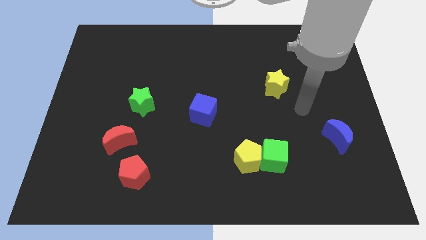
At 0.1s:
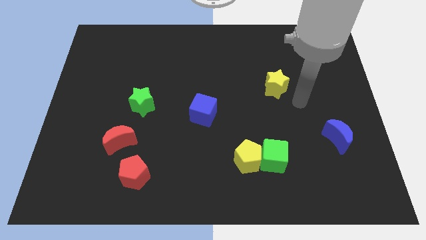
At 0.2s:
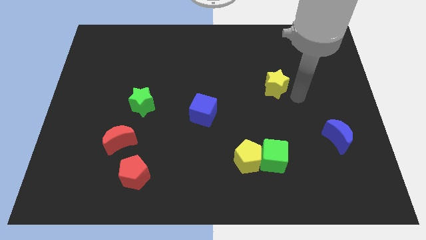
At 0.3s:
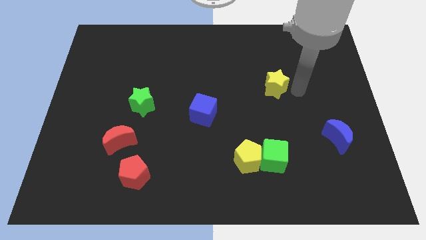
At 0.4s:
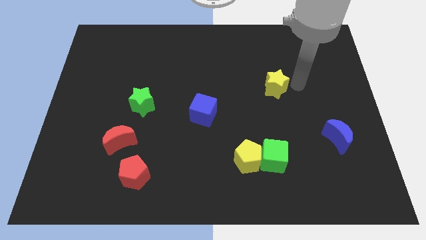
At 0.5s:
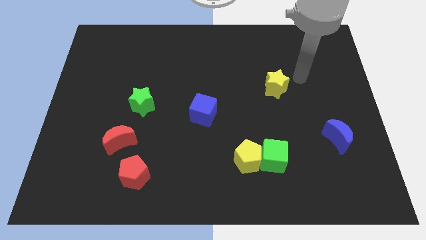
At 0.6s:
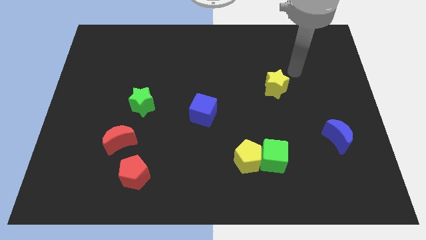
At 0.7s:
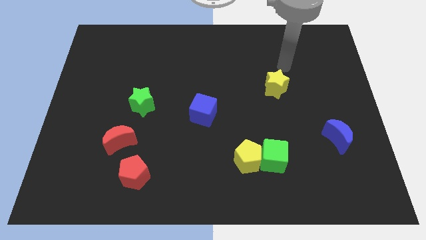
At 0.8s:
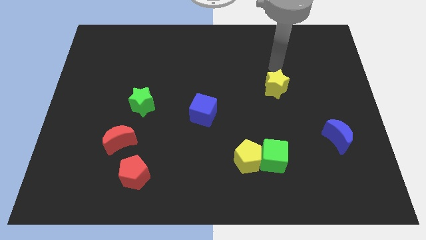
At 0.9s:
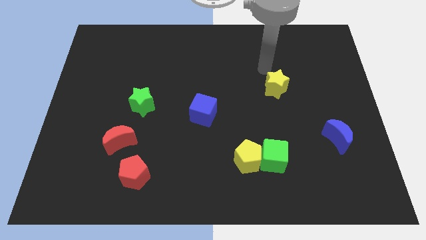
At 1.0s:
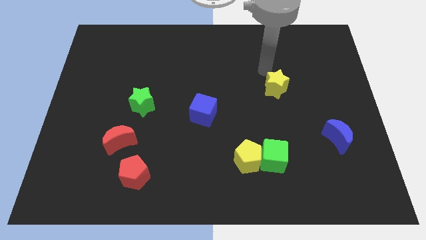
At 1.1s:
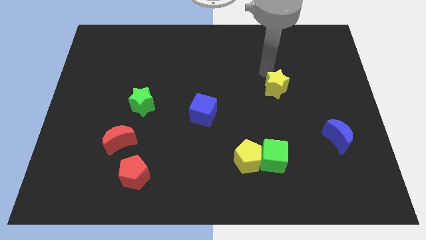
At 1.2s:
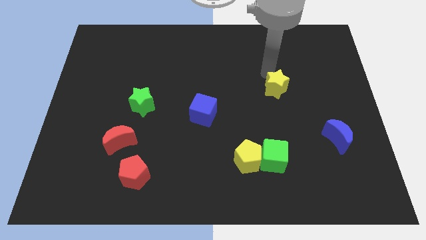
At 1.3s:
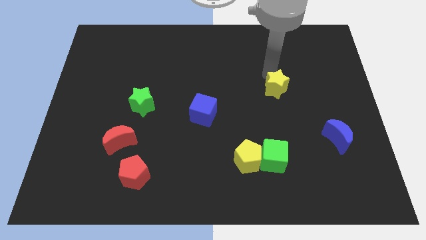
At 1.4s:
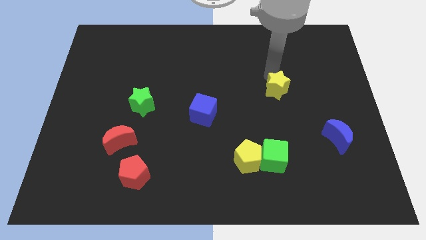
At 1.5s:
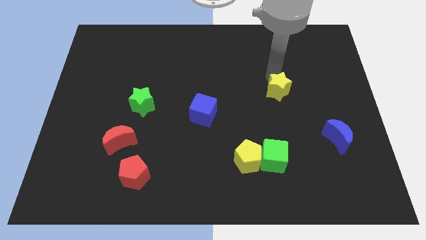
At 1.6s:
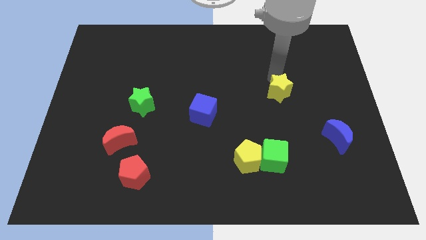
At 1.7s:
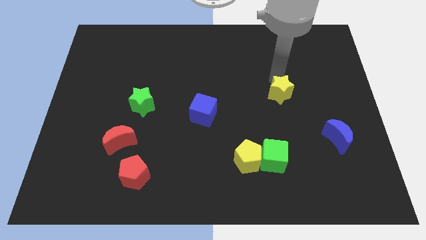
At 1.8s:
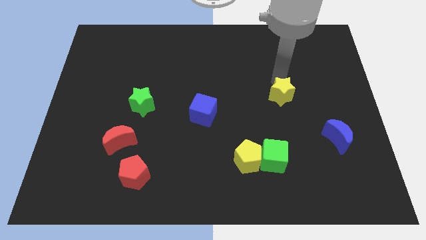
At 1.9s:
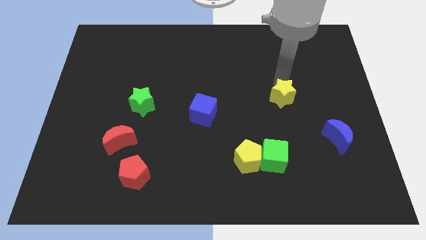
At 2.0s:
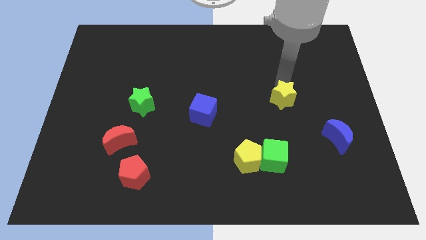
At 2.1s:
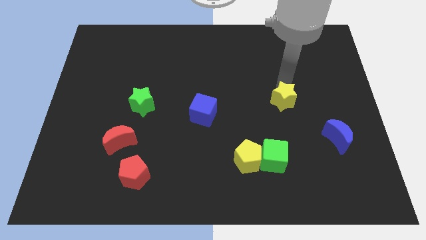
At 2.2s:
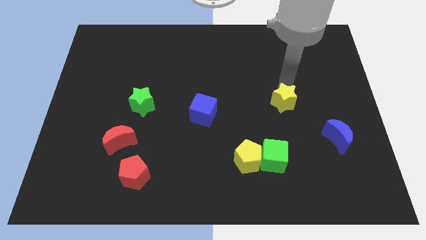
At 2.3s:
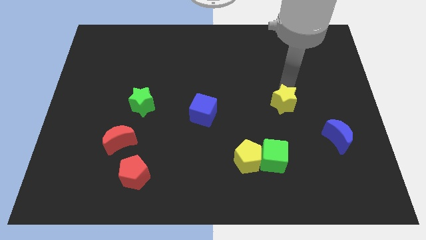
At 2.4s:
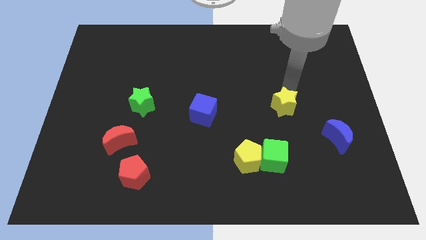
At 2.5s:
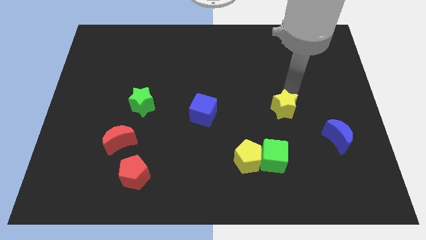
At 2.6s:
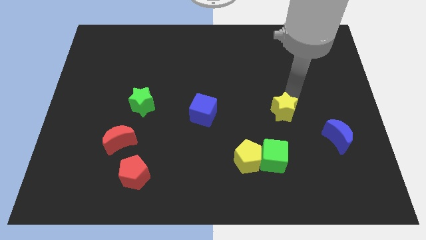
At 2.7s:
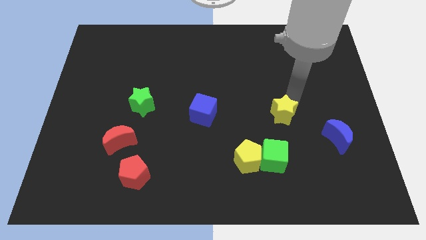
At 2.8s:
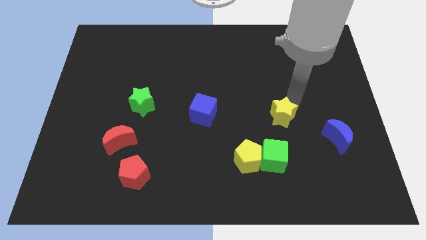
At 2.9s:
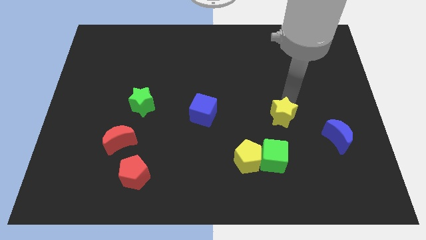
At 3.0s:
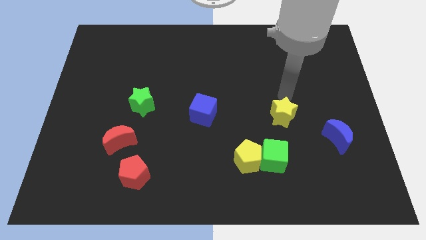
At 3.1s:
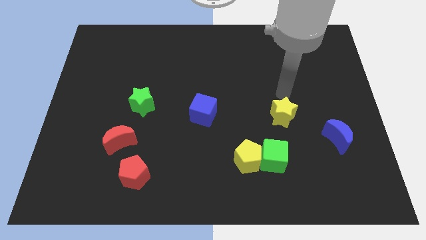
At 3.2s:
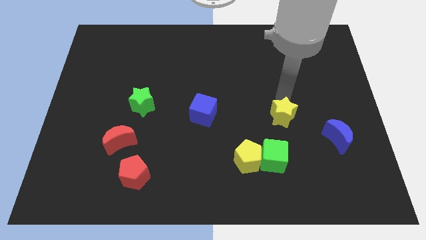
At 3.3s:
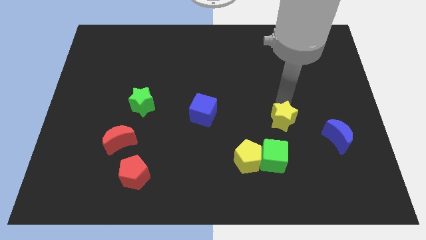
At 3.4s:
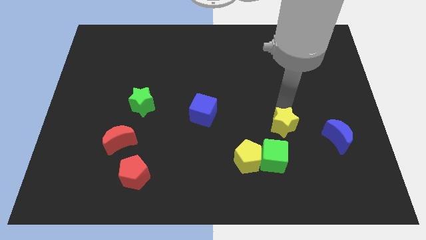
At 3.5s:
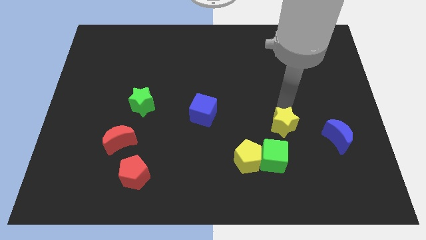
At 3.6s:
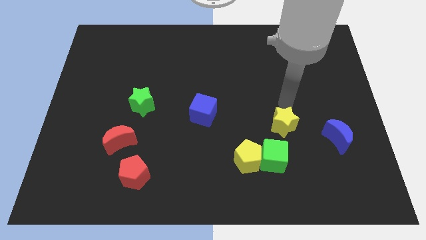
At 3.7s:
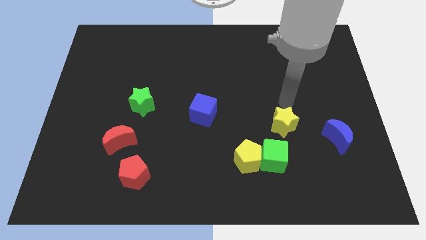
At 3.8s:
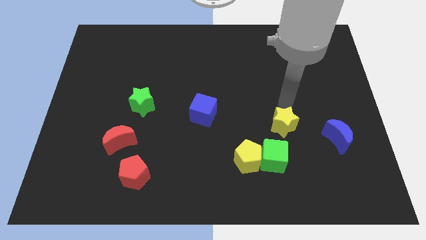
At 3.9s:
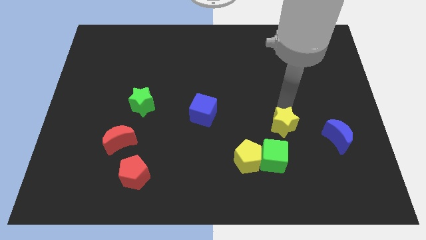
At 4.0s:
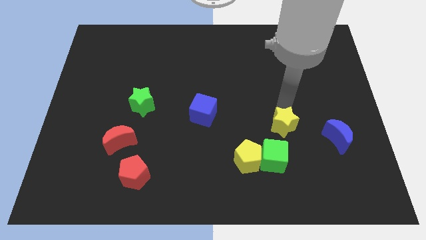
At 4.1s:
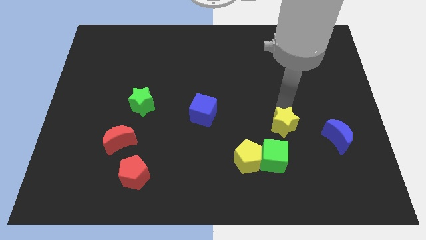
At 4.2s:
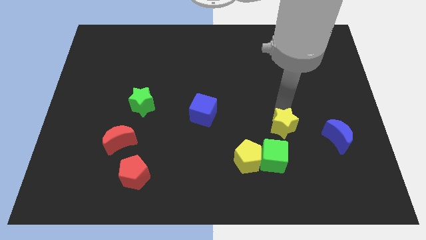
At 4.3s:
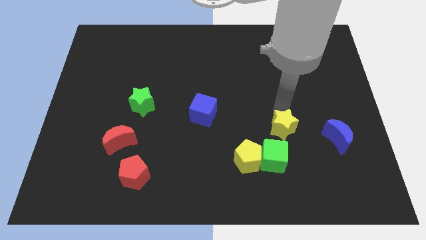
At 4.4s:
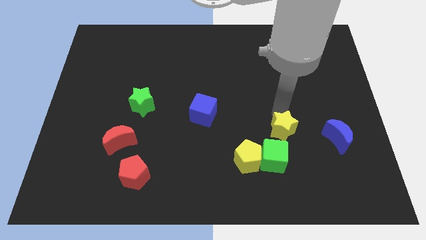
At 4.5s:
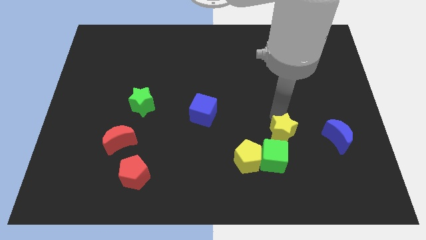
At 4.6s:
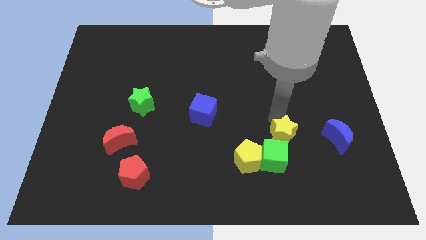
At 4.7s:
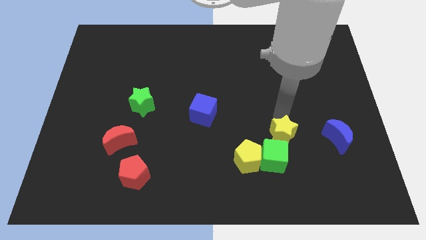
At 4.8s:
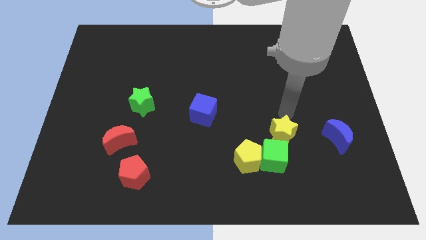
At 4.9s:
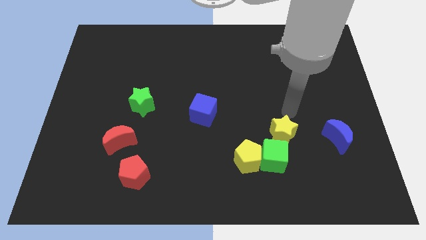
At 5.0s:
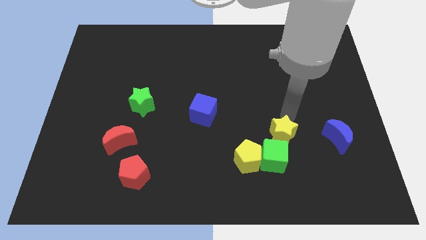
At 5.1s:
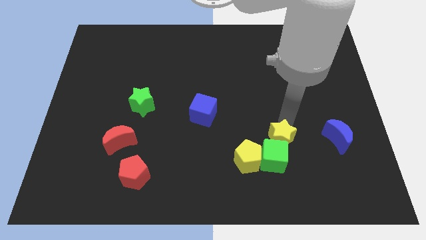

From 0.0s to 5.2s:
push the yellow star next to the green cube

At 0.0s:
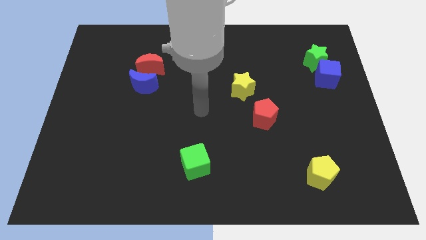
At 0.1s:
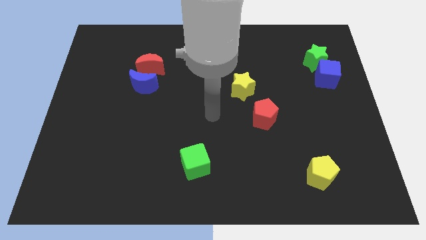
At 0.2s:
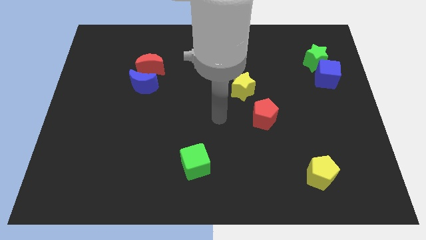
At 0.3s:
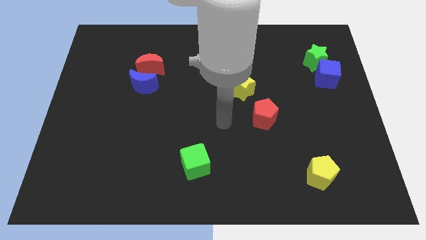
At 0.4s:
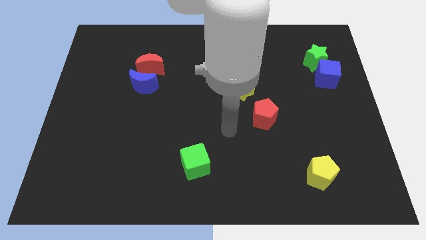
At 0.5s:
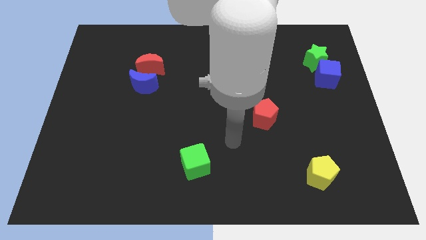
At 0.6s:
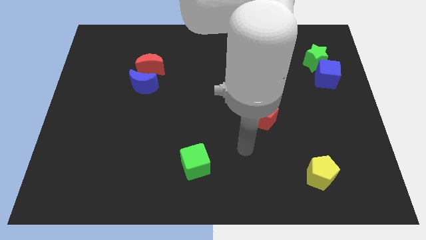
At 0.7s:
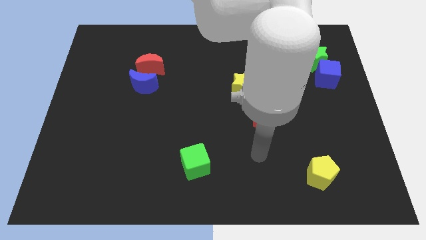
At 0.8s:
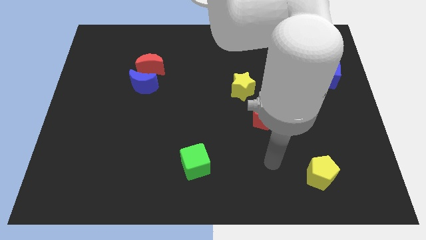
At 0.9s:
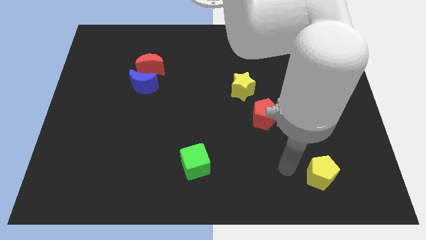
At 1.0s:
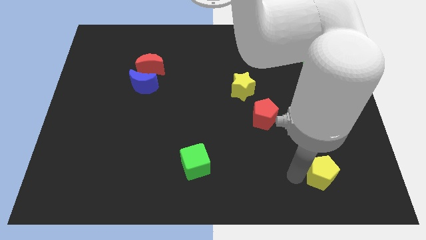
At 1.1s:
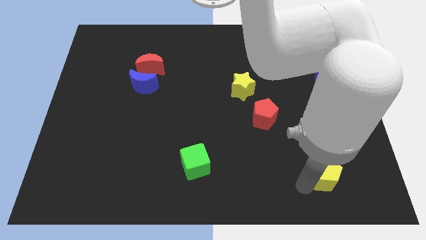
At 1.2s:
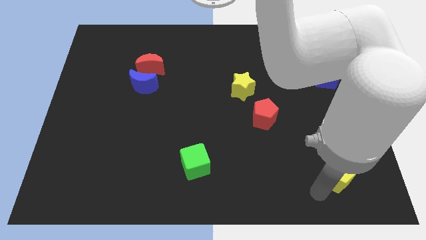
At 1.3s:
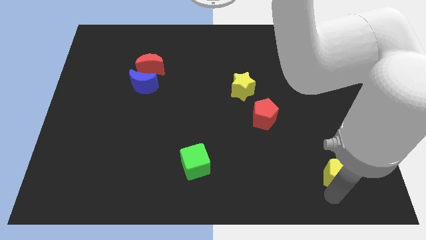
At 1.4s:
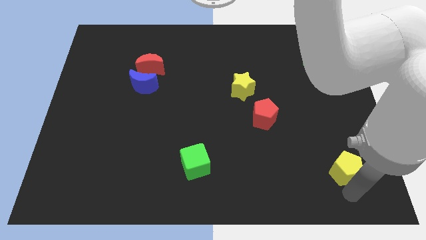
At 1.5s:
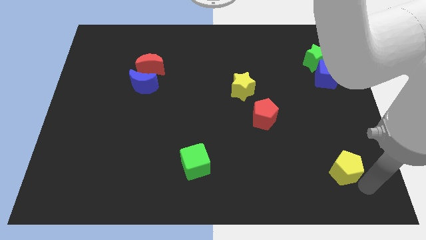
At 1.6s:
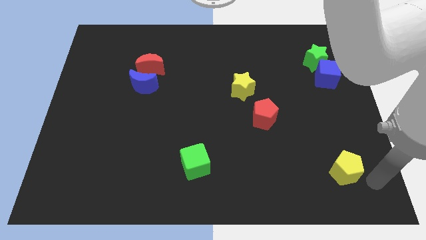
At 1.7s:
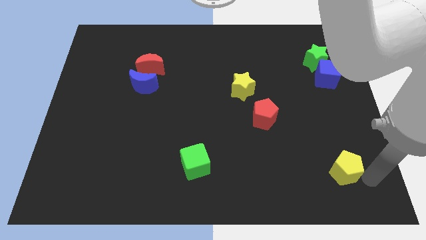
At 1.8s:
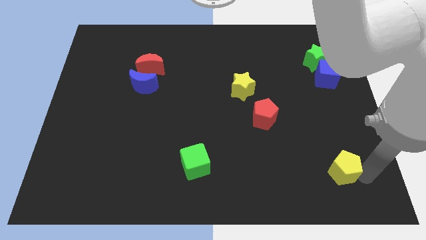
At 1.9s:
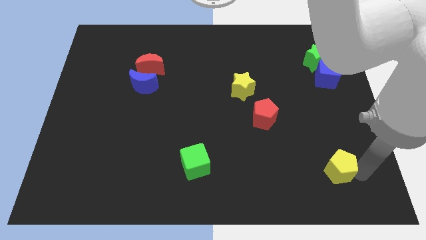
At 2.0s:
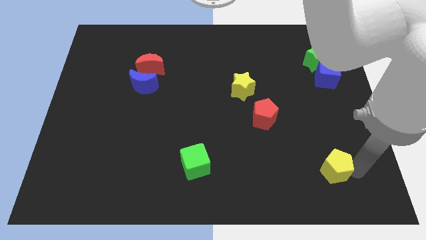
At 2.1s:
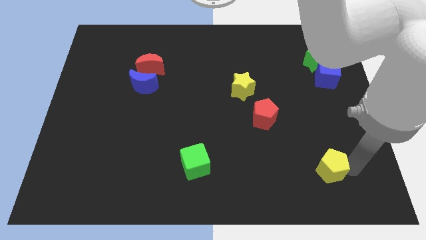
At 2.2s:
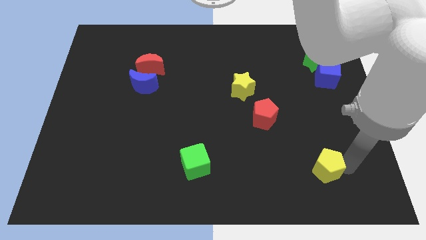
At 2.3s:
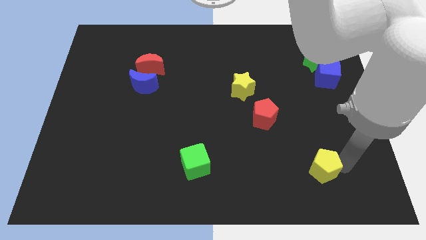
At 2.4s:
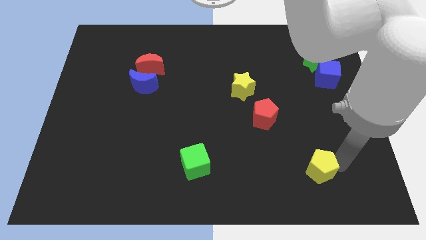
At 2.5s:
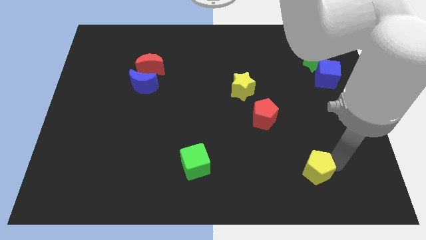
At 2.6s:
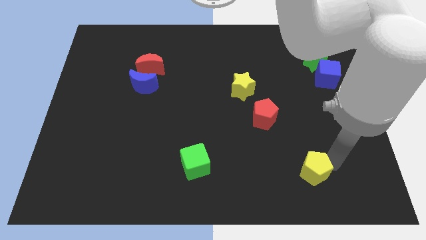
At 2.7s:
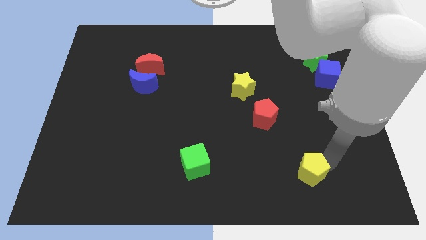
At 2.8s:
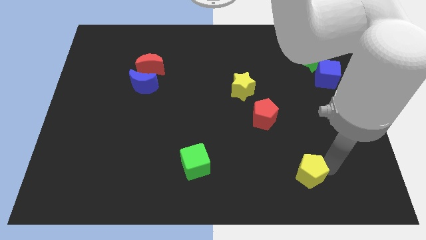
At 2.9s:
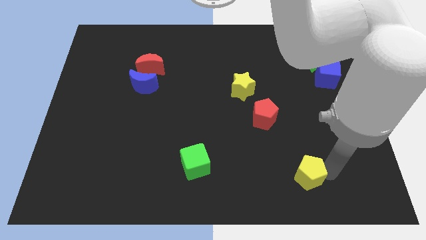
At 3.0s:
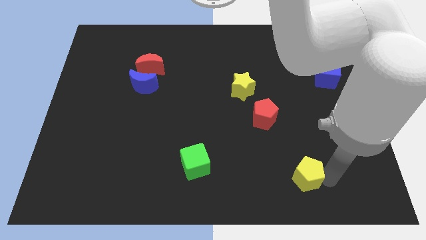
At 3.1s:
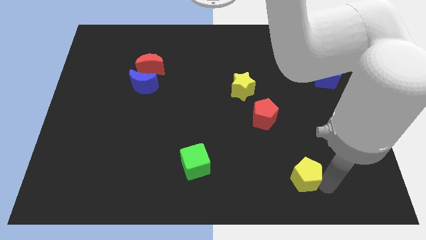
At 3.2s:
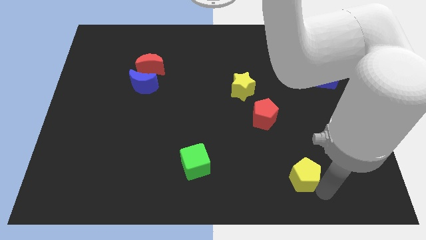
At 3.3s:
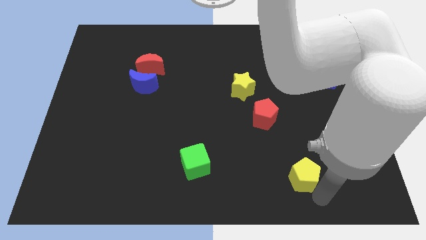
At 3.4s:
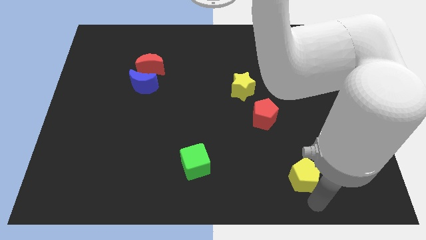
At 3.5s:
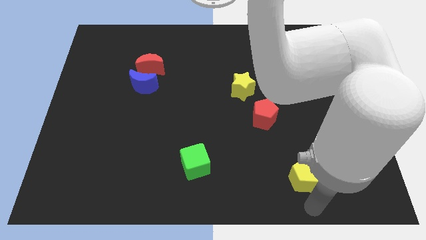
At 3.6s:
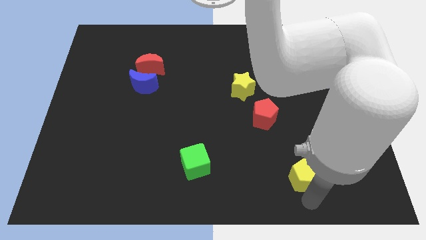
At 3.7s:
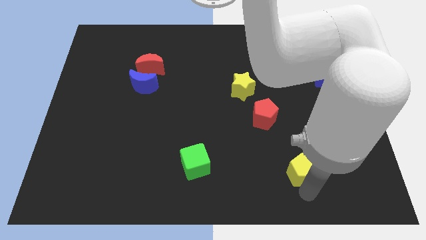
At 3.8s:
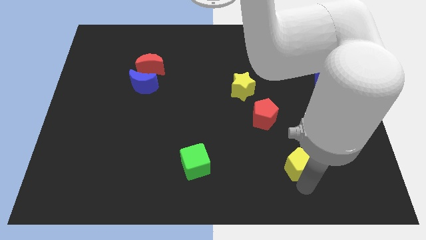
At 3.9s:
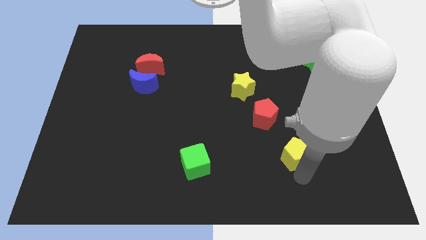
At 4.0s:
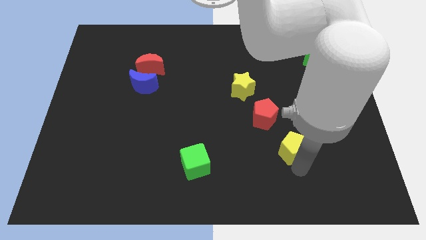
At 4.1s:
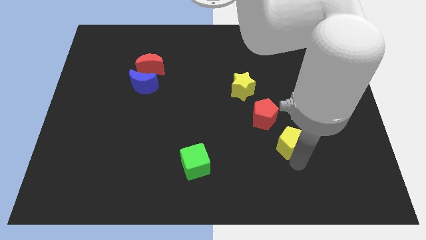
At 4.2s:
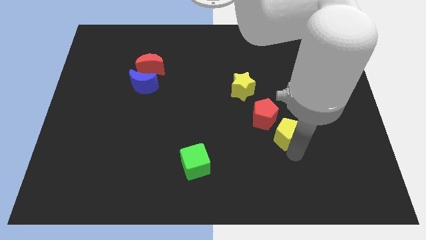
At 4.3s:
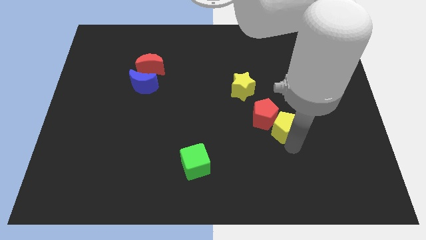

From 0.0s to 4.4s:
push the yellow pentagon close to the red pentagon
